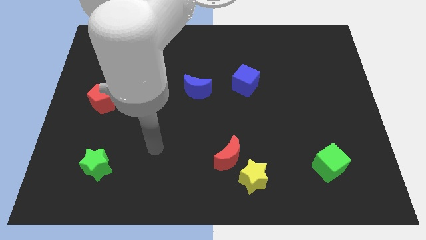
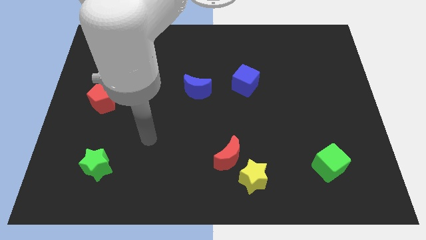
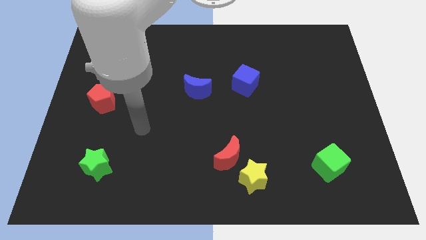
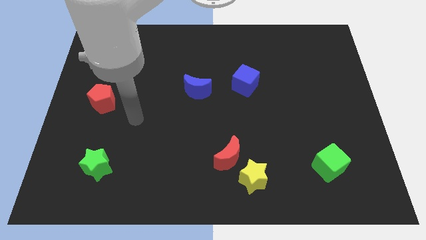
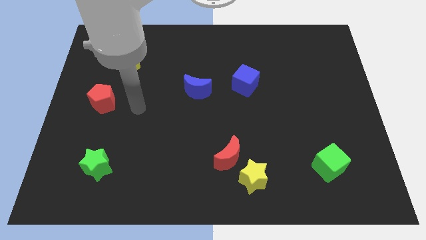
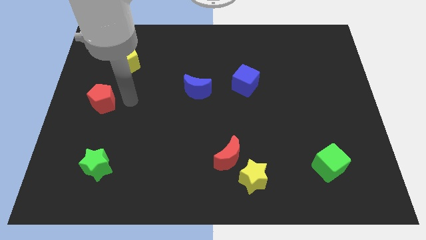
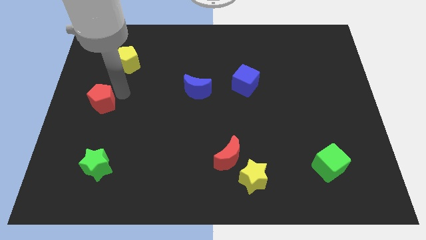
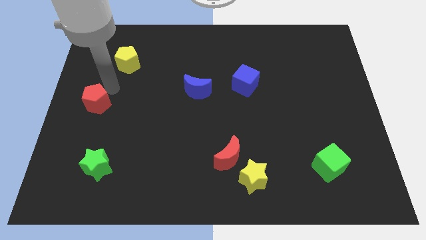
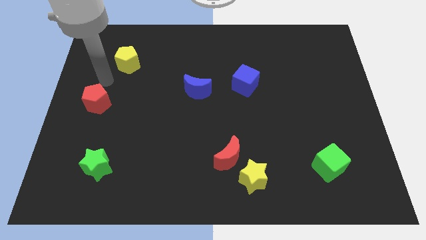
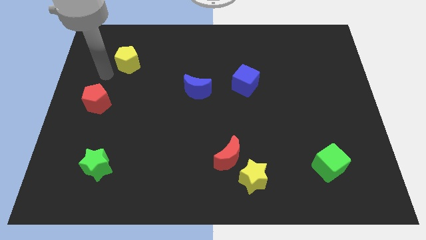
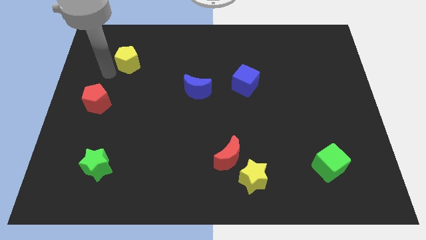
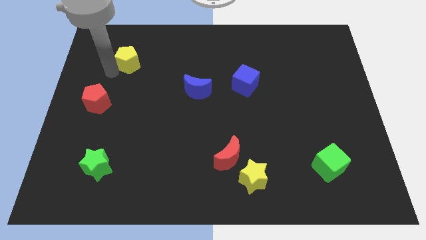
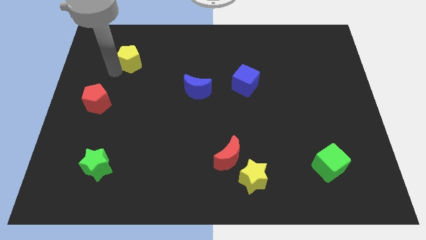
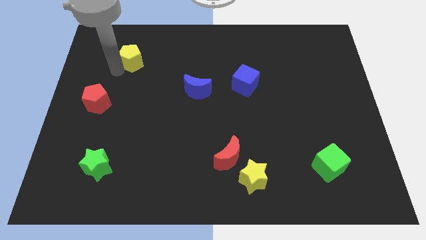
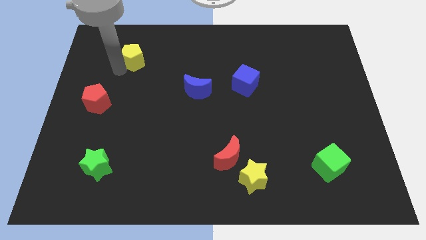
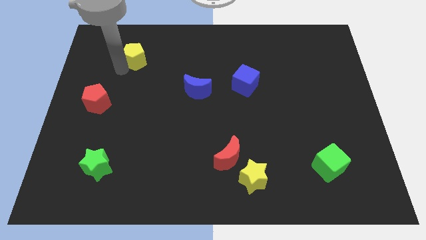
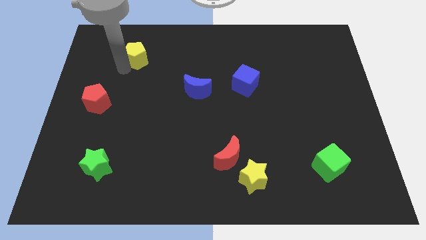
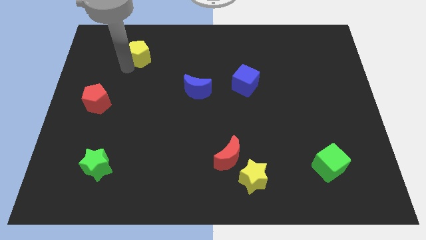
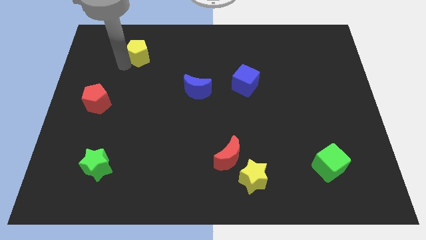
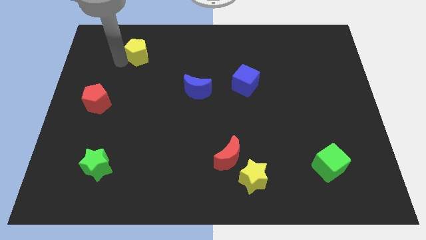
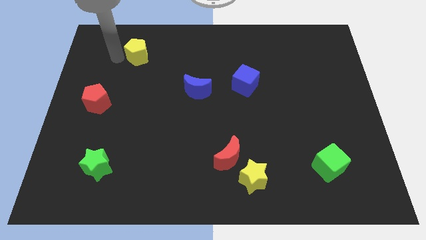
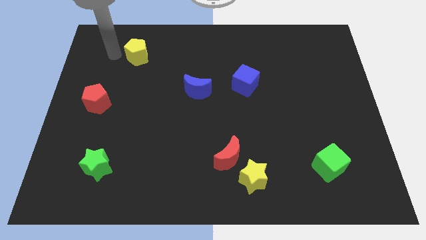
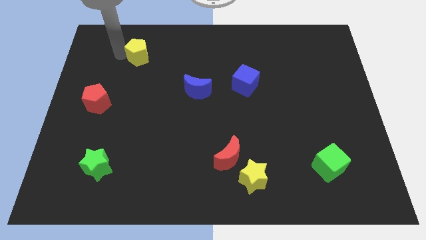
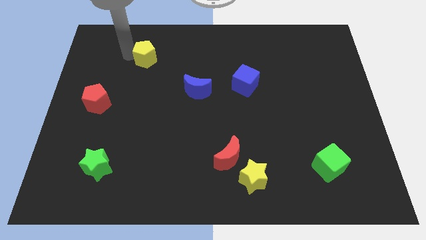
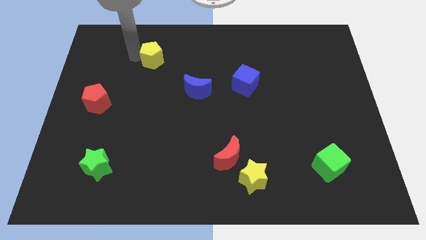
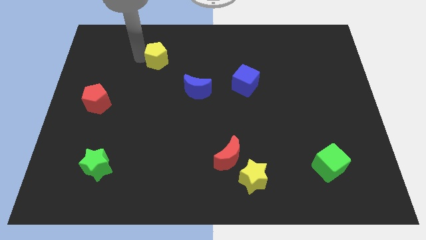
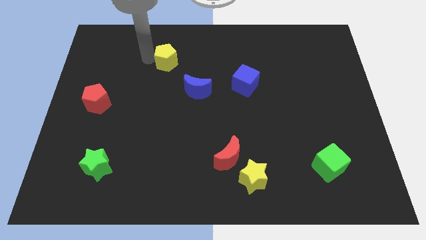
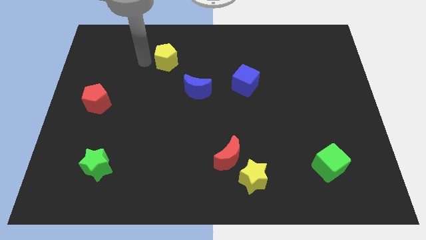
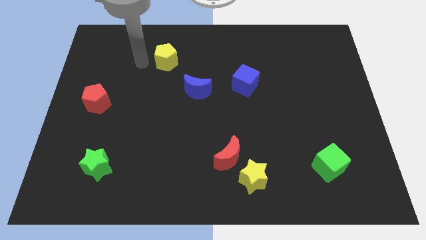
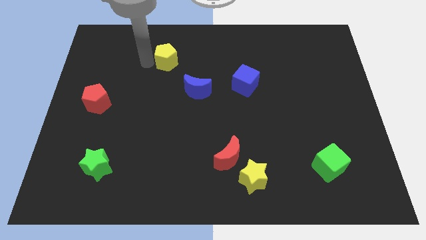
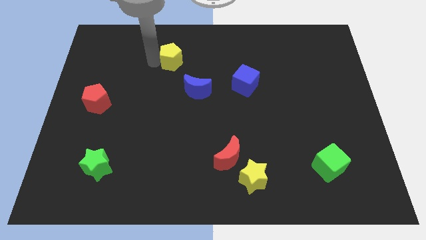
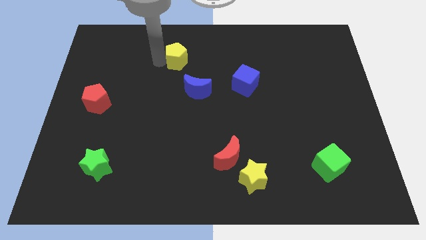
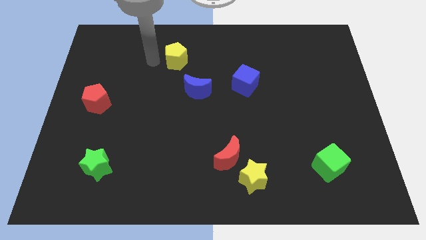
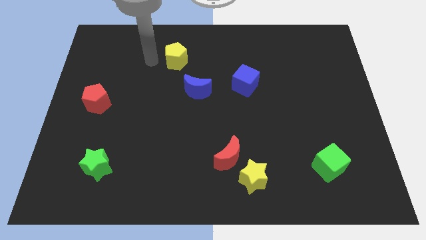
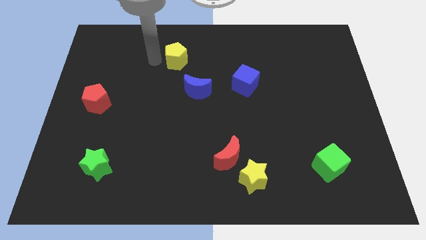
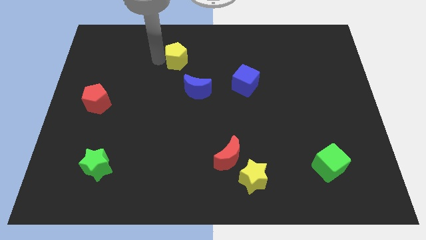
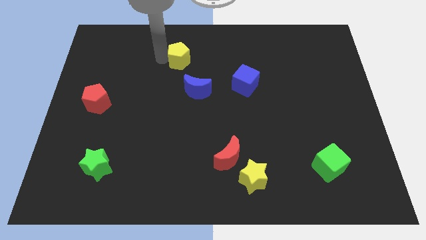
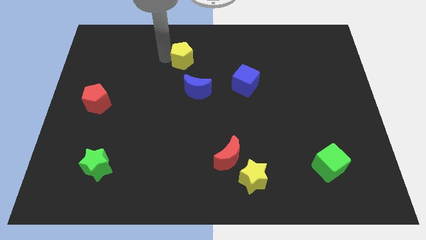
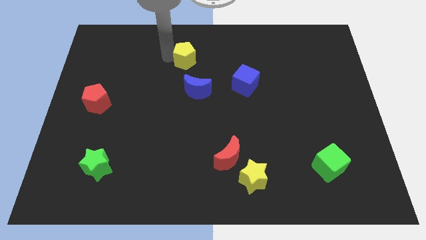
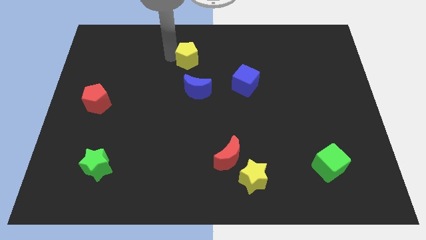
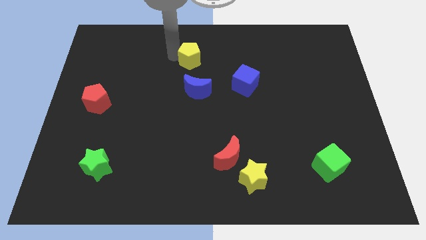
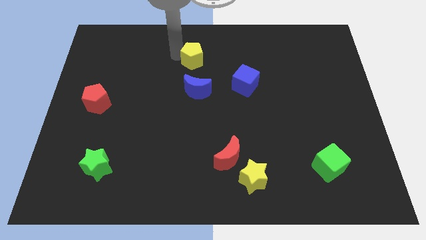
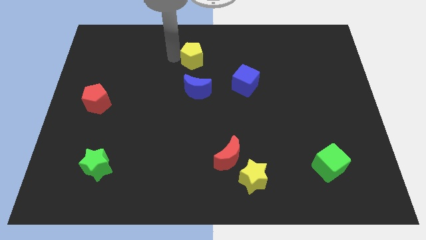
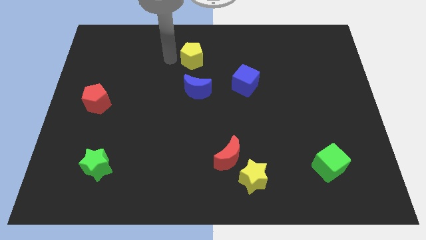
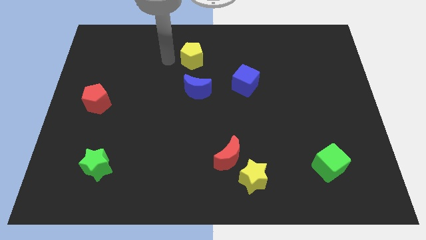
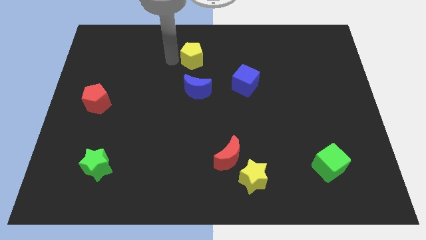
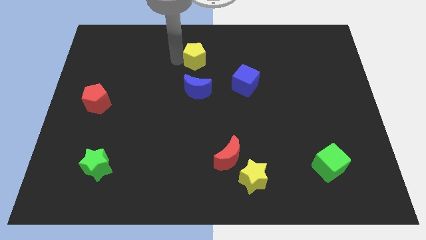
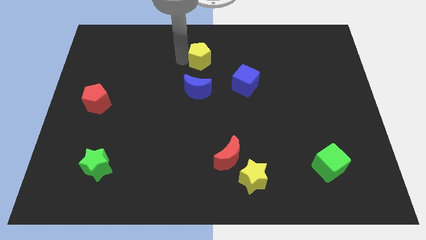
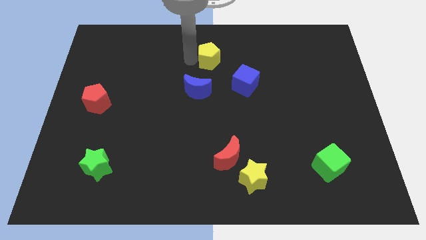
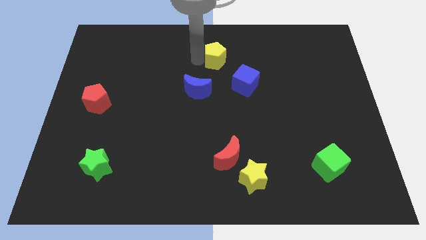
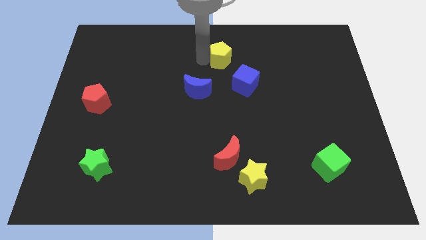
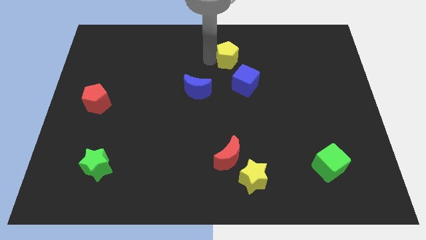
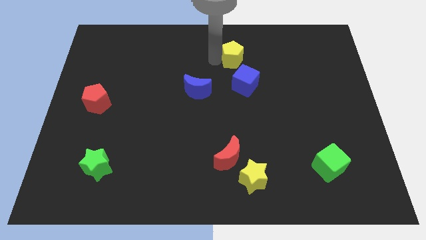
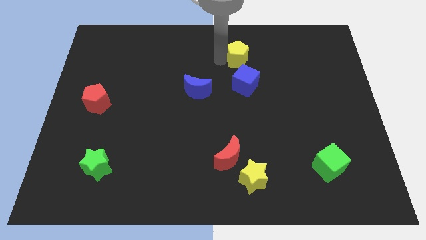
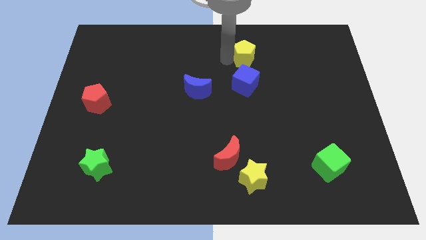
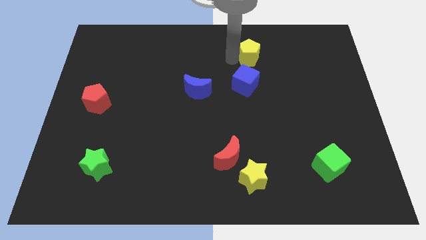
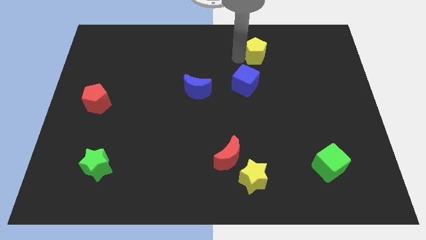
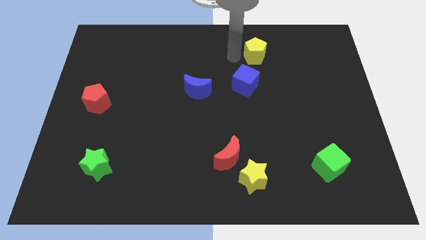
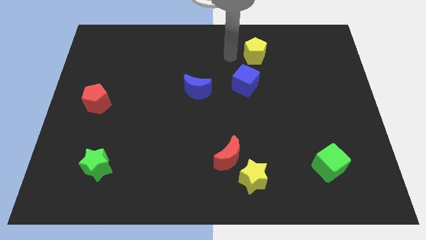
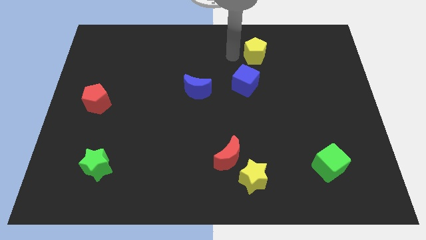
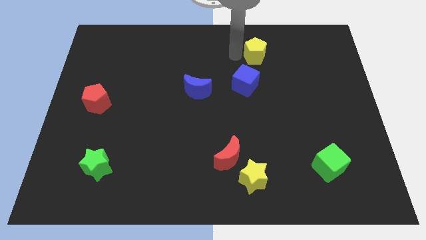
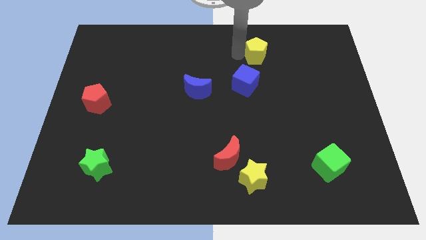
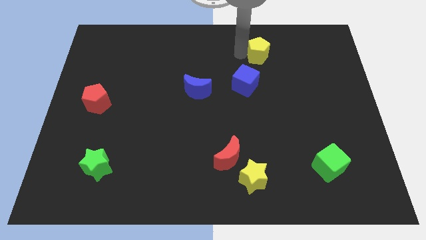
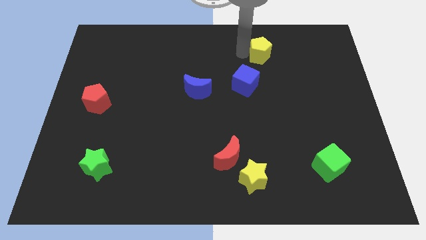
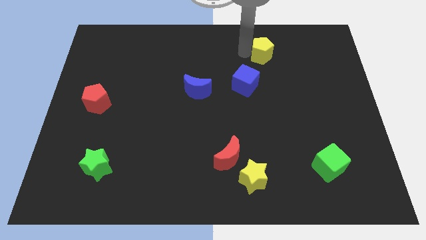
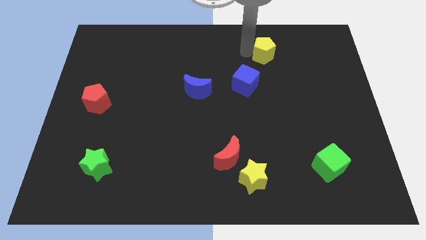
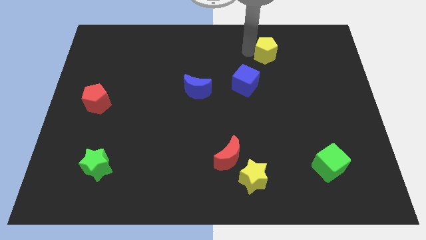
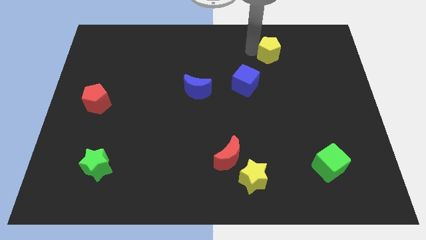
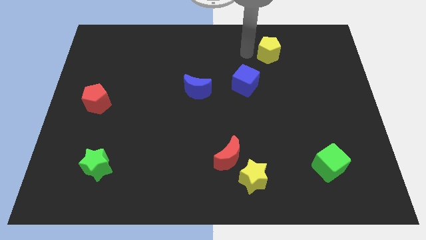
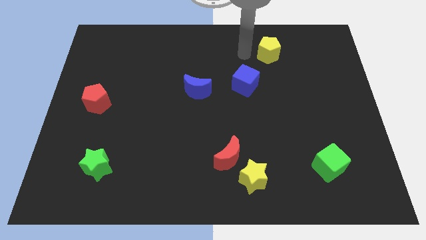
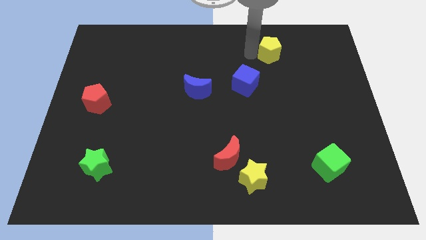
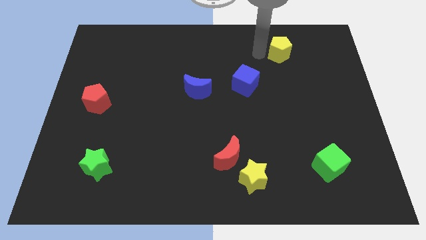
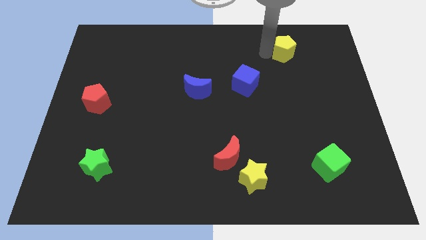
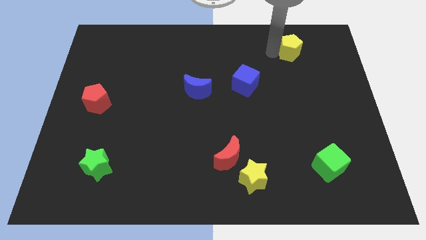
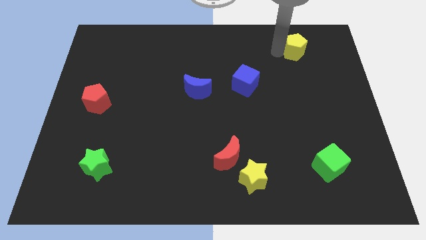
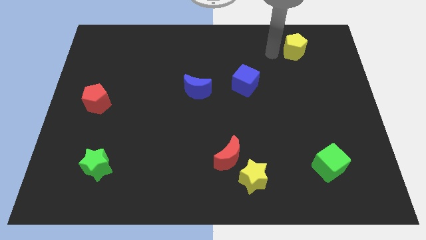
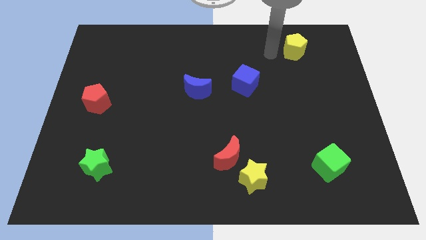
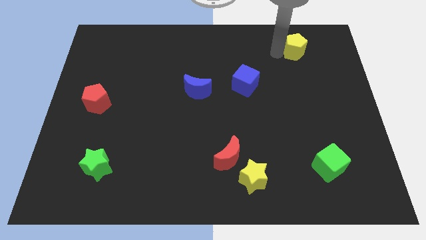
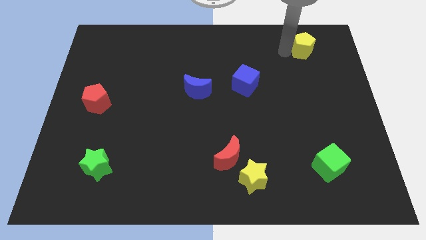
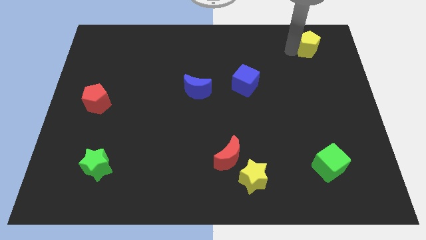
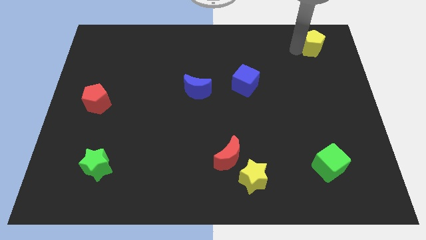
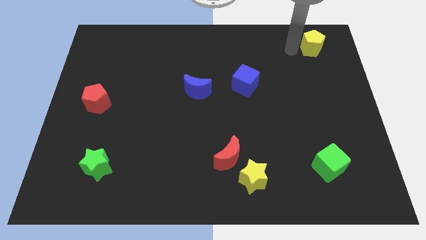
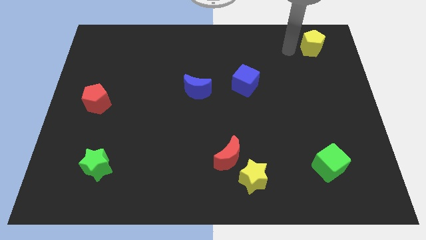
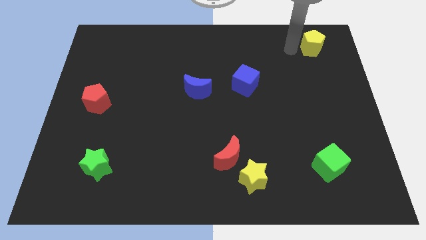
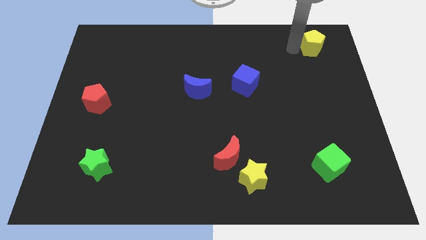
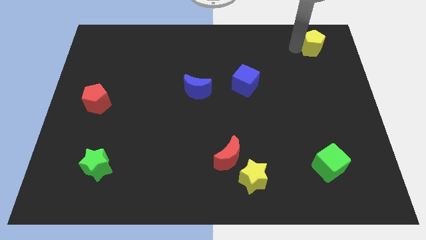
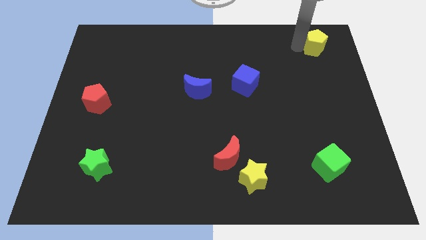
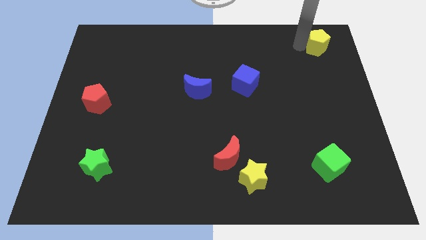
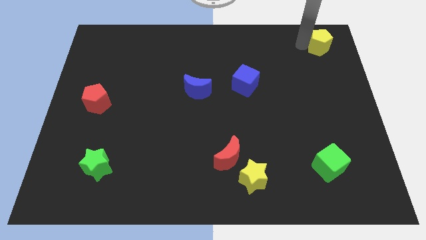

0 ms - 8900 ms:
put the yellow pentagon to the upper right corner
